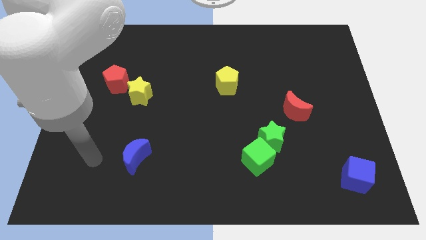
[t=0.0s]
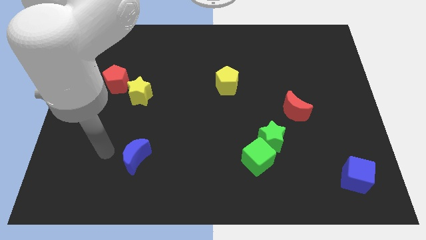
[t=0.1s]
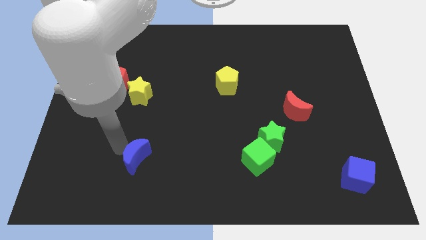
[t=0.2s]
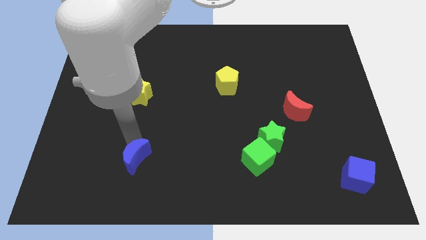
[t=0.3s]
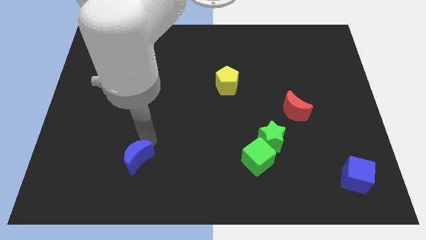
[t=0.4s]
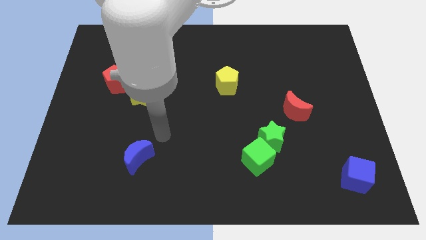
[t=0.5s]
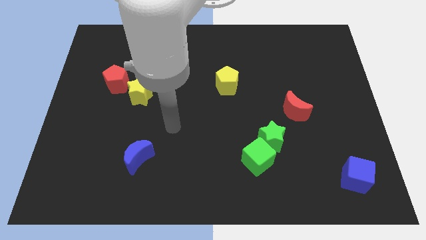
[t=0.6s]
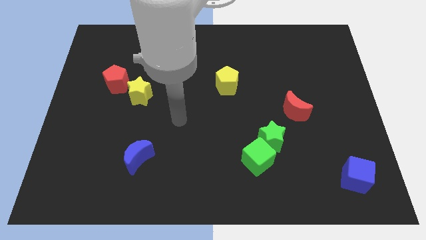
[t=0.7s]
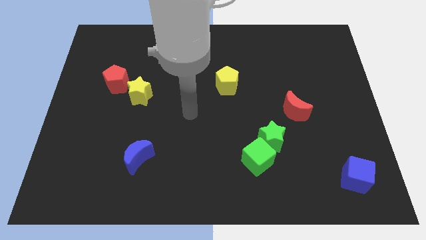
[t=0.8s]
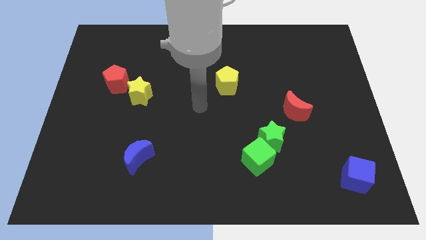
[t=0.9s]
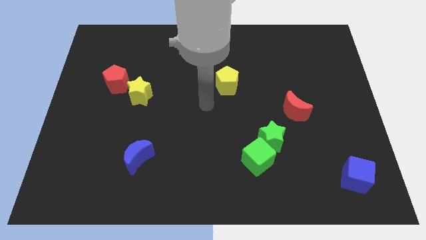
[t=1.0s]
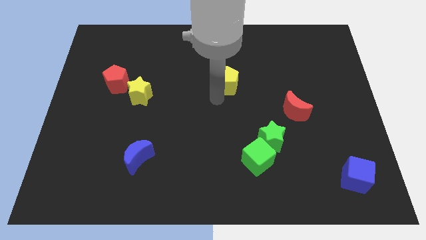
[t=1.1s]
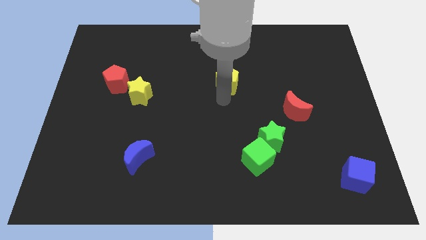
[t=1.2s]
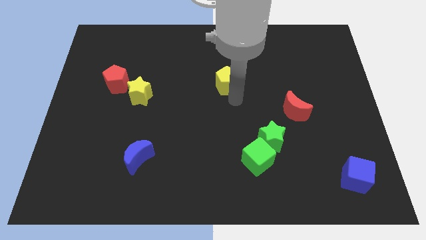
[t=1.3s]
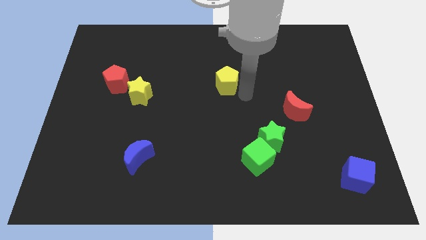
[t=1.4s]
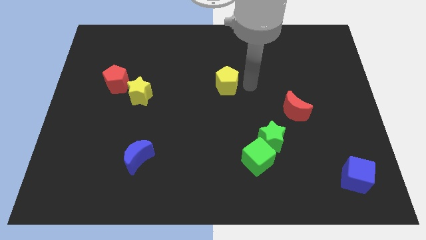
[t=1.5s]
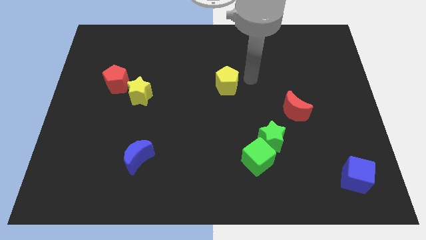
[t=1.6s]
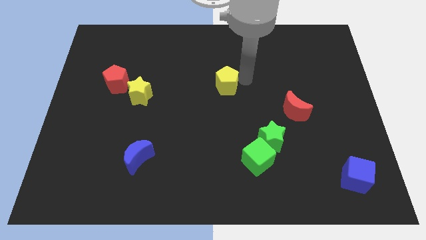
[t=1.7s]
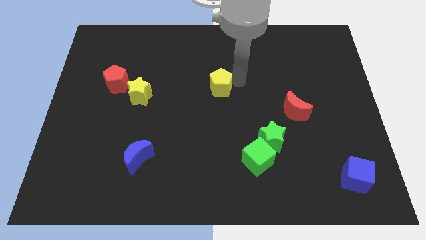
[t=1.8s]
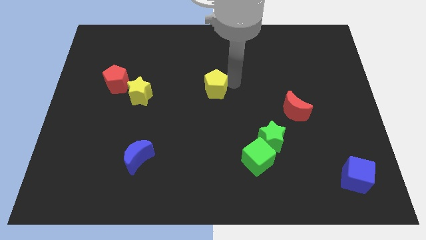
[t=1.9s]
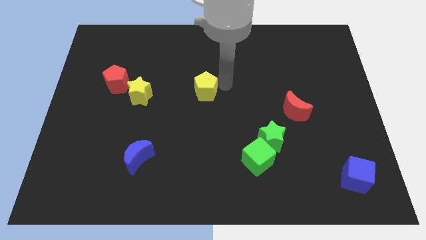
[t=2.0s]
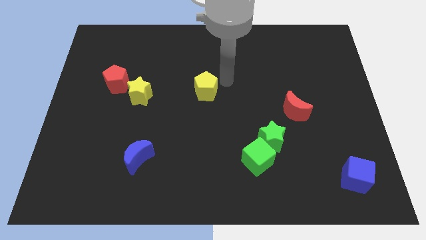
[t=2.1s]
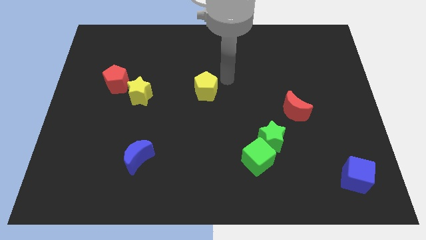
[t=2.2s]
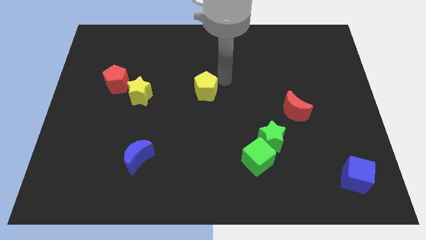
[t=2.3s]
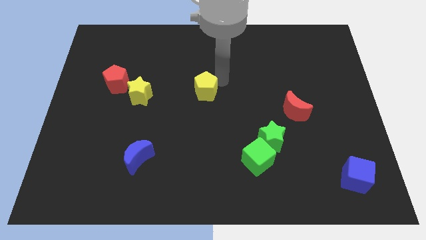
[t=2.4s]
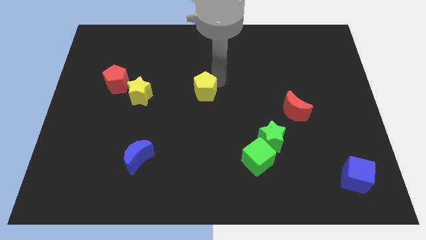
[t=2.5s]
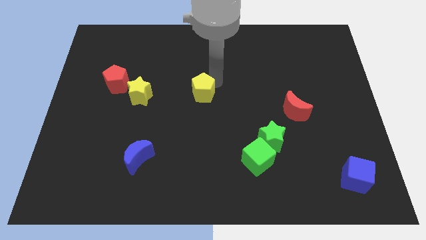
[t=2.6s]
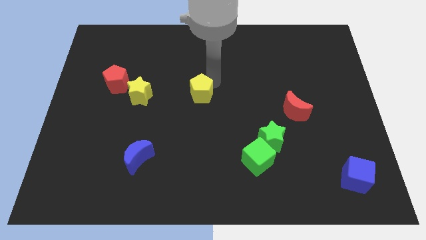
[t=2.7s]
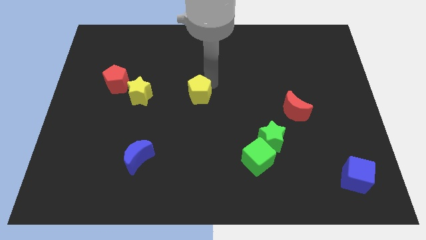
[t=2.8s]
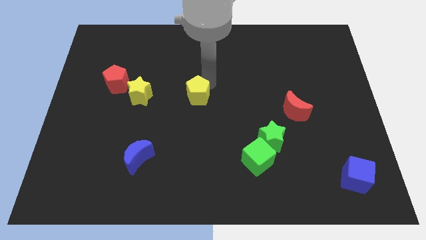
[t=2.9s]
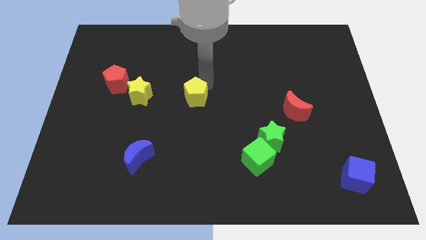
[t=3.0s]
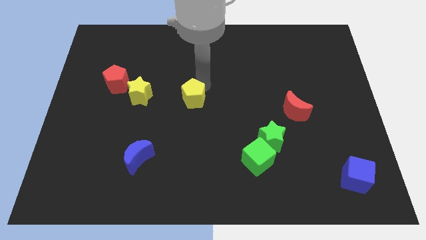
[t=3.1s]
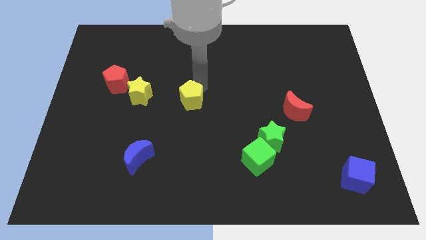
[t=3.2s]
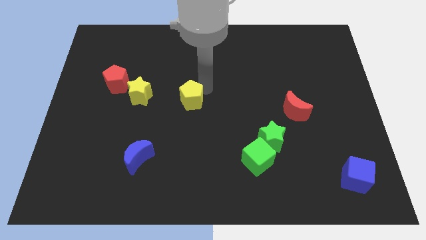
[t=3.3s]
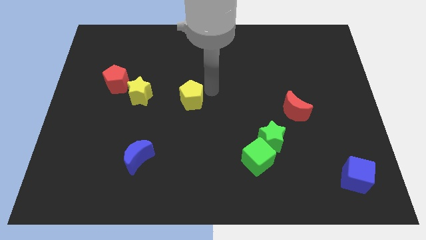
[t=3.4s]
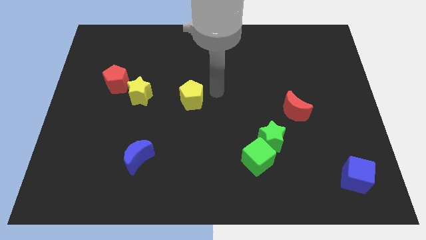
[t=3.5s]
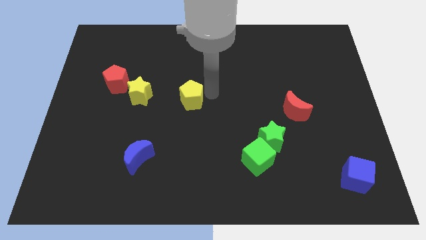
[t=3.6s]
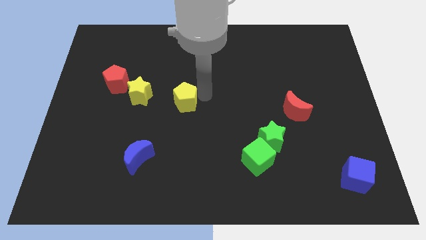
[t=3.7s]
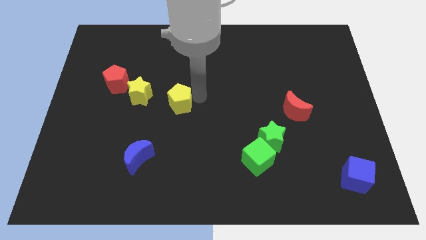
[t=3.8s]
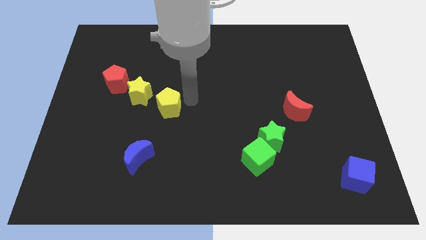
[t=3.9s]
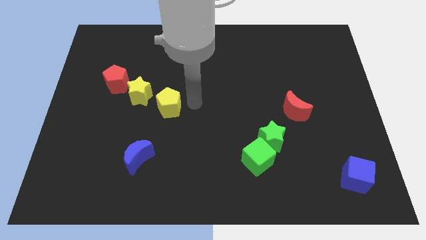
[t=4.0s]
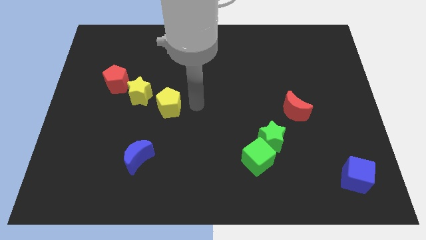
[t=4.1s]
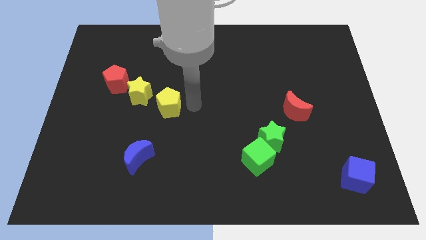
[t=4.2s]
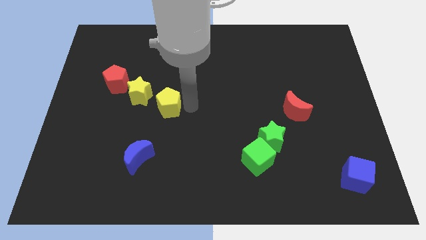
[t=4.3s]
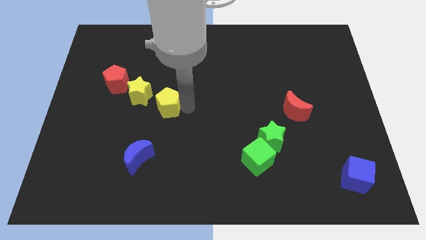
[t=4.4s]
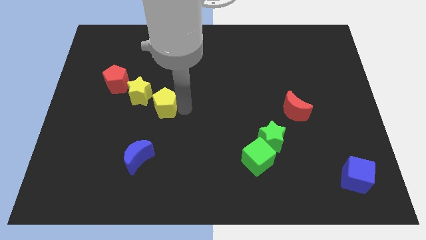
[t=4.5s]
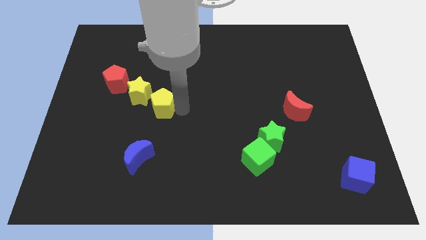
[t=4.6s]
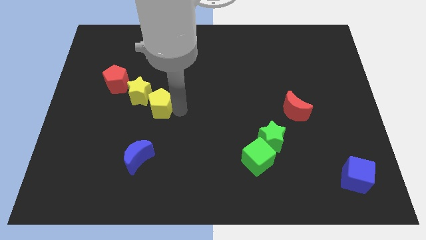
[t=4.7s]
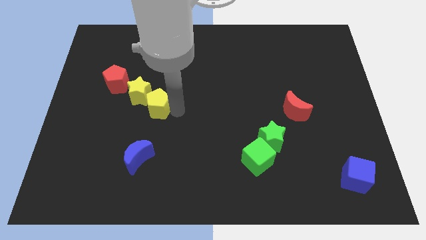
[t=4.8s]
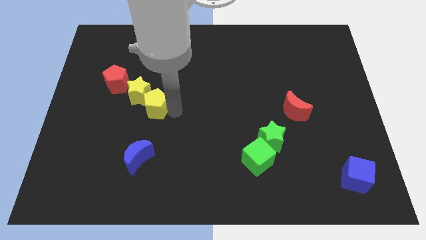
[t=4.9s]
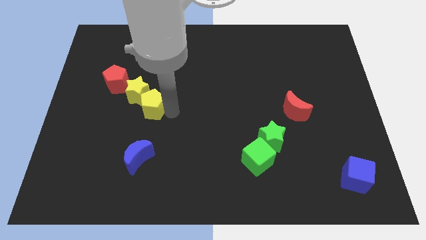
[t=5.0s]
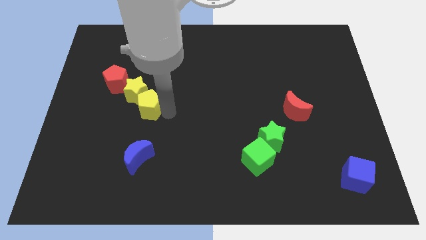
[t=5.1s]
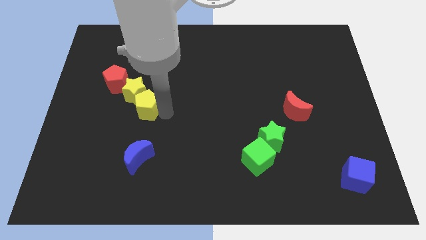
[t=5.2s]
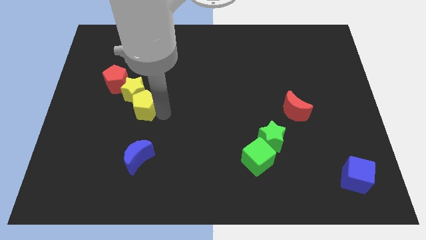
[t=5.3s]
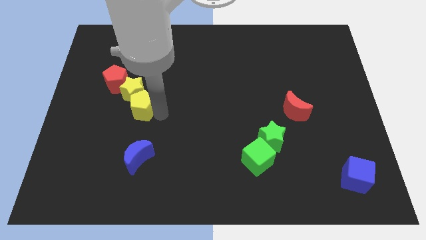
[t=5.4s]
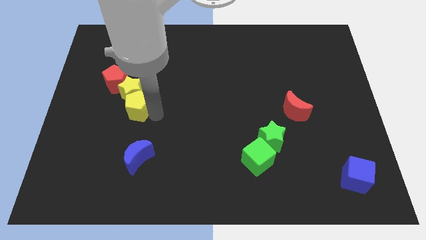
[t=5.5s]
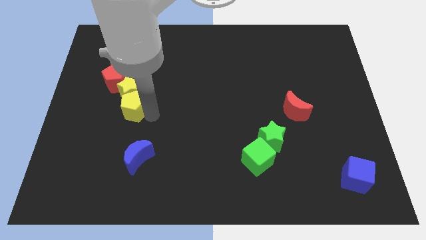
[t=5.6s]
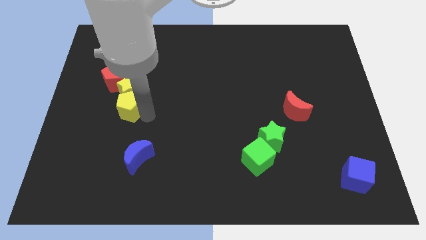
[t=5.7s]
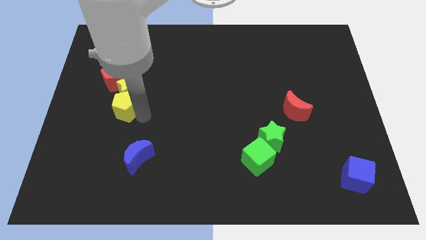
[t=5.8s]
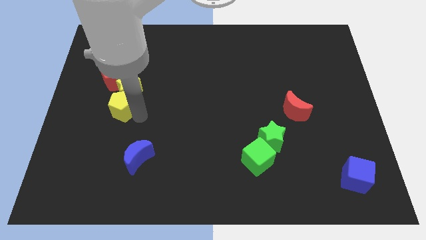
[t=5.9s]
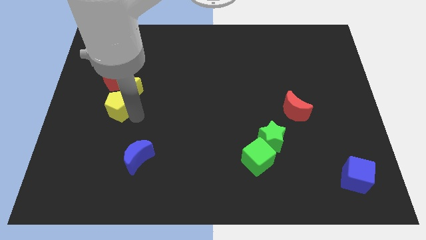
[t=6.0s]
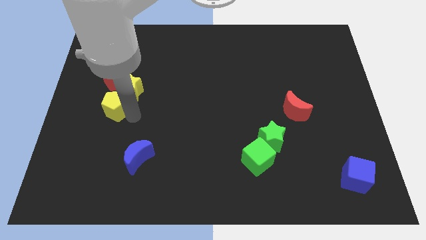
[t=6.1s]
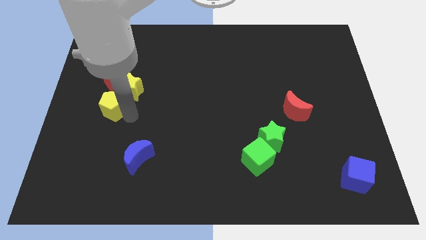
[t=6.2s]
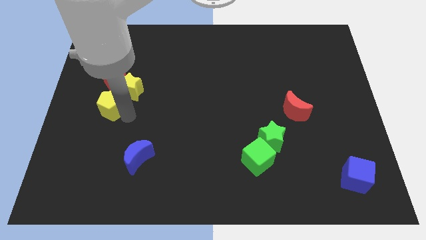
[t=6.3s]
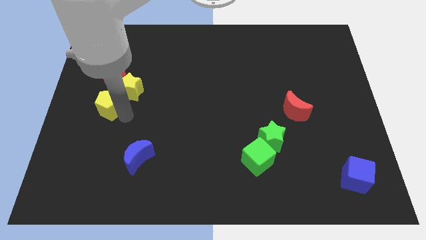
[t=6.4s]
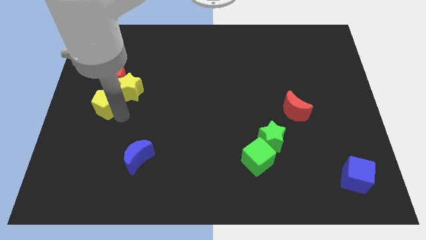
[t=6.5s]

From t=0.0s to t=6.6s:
move the yellow pentagon to the left side
